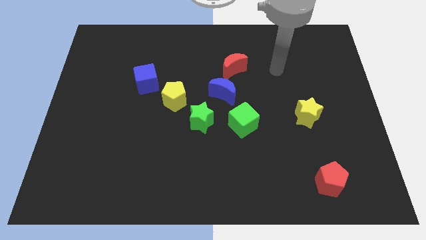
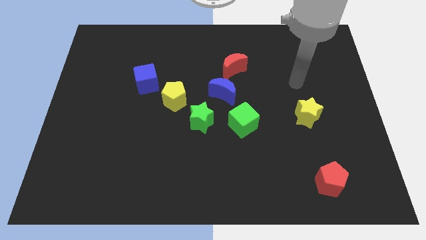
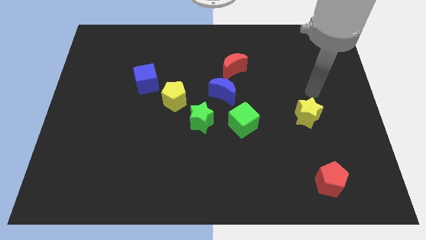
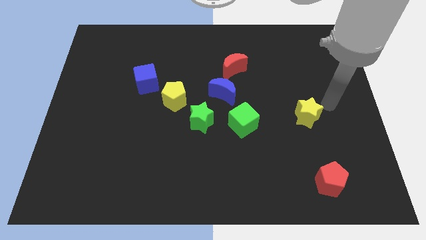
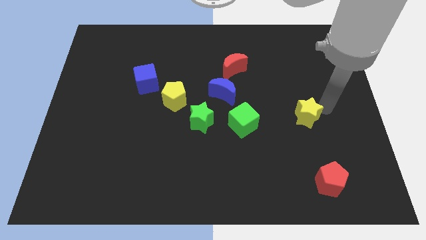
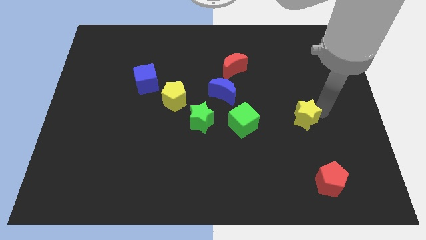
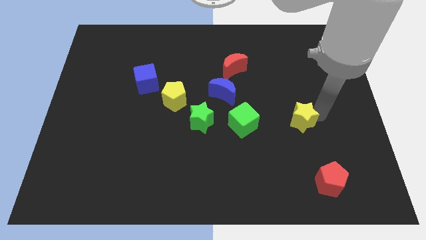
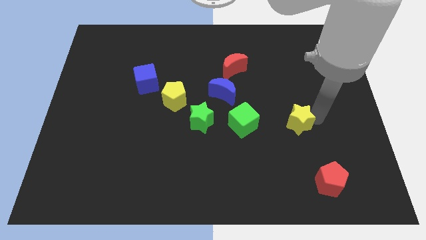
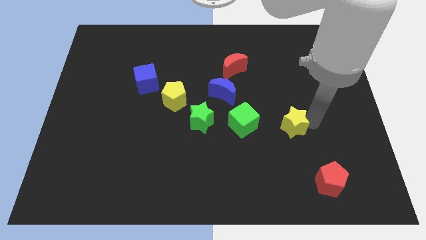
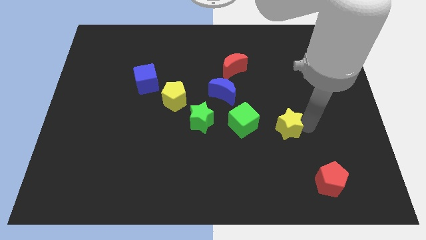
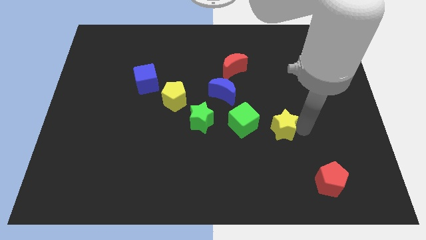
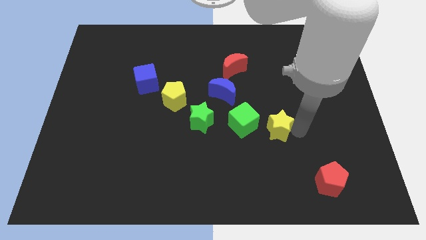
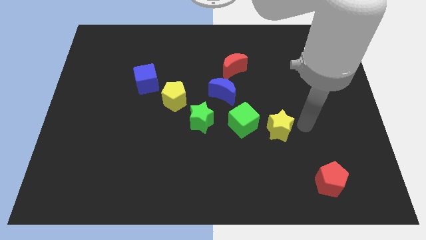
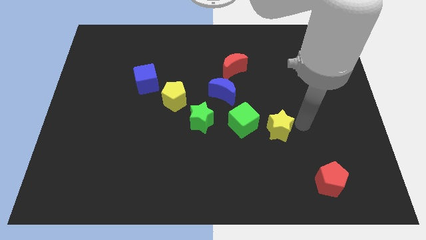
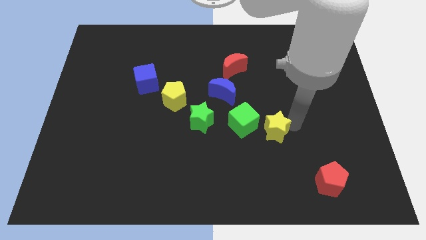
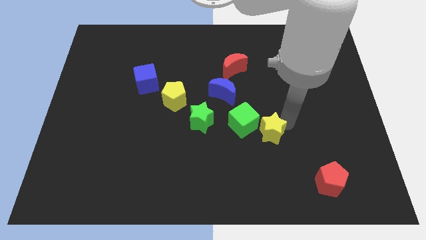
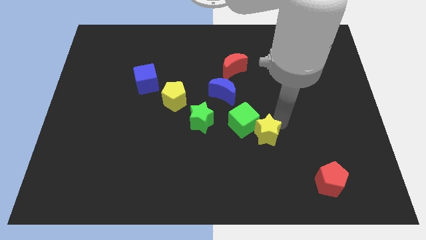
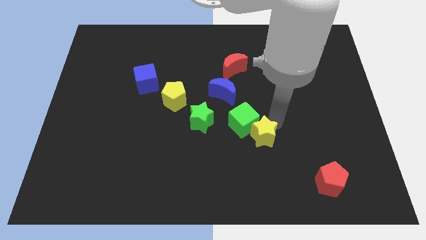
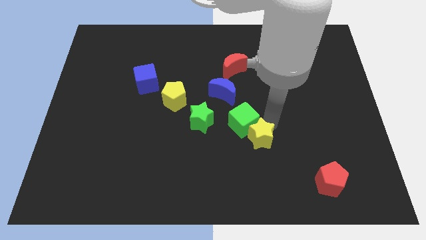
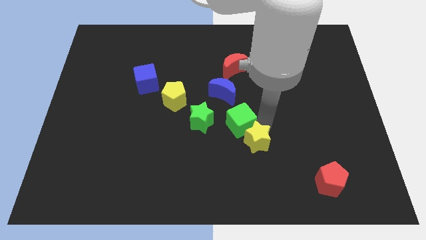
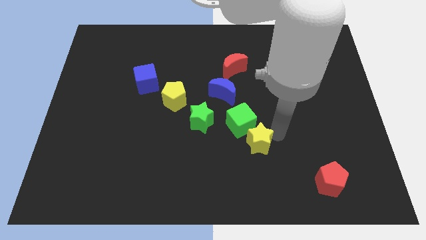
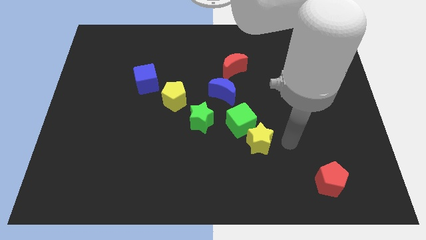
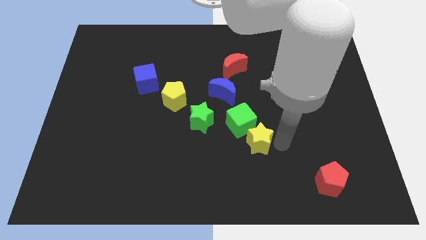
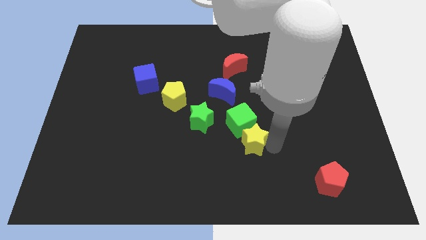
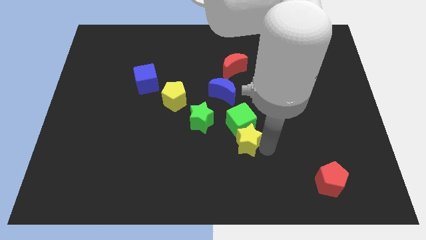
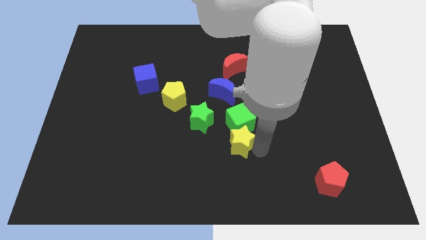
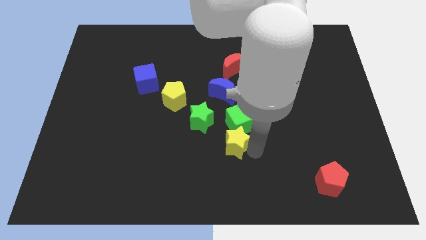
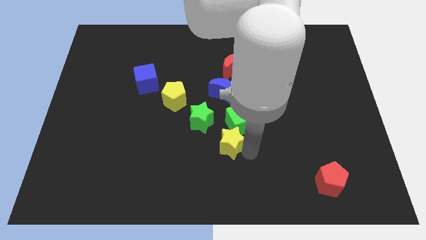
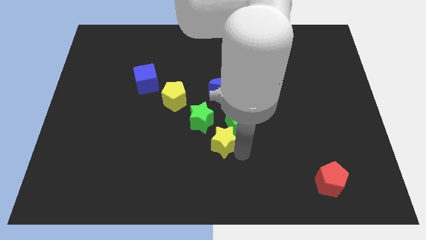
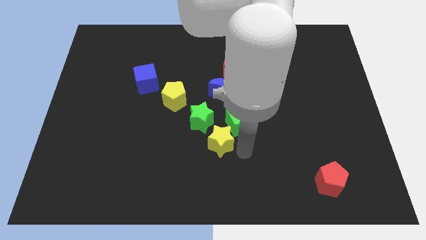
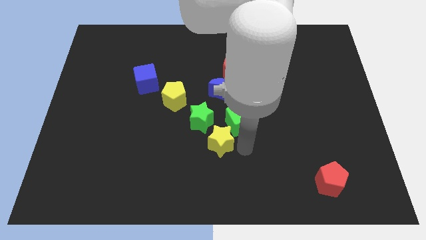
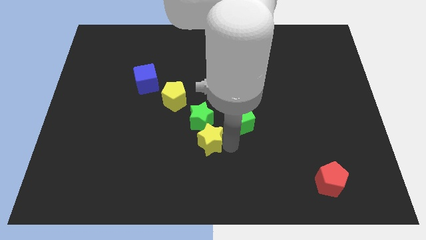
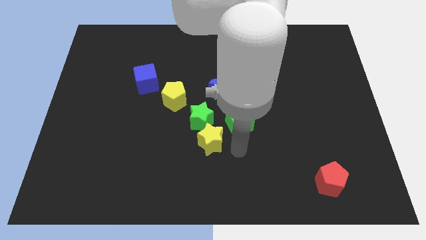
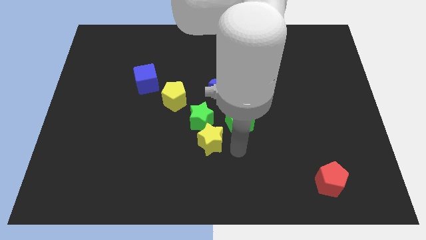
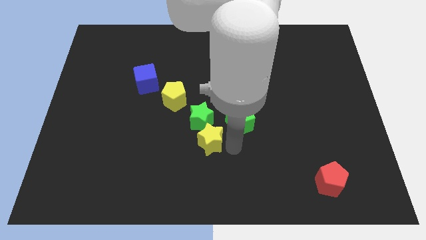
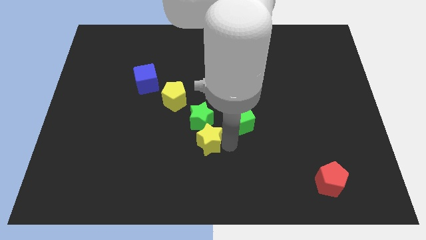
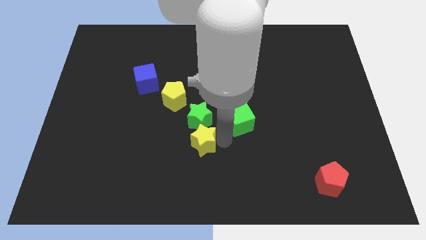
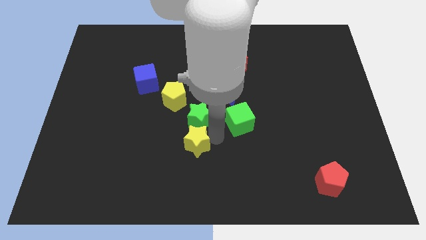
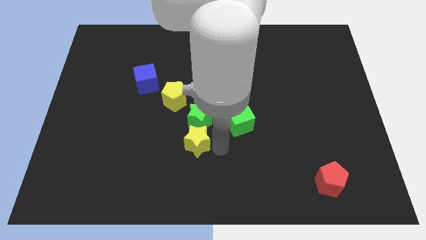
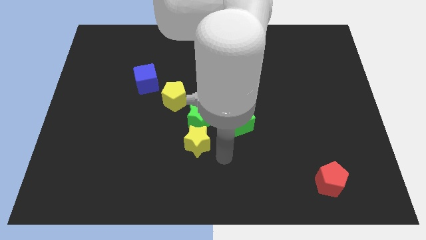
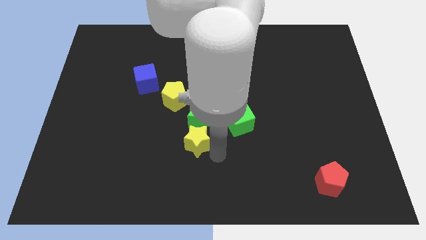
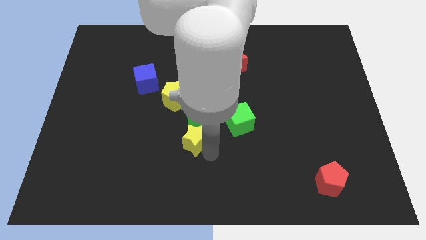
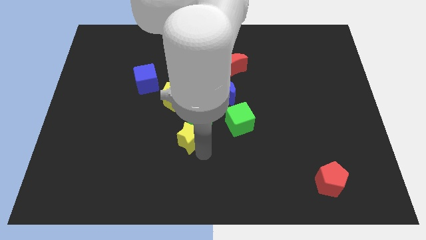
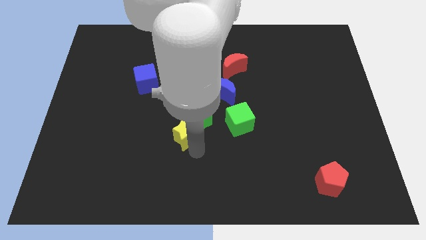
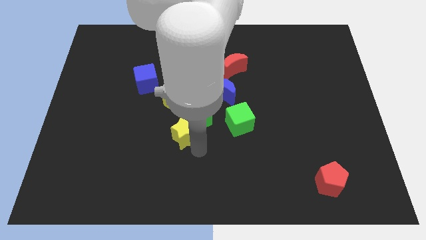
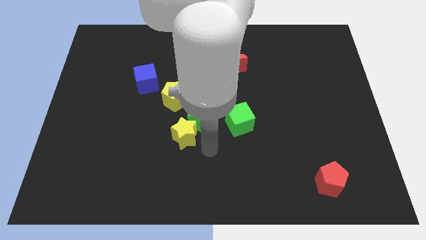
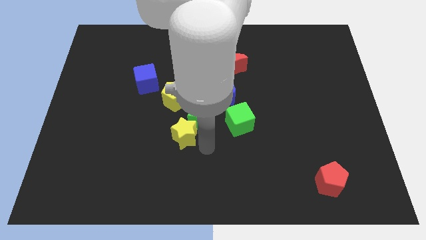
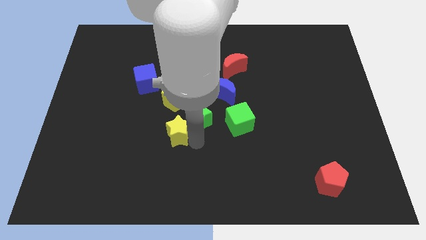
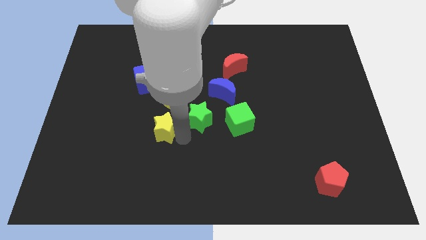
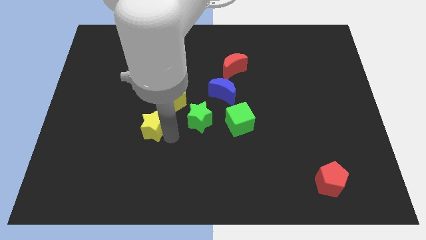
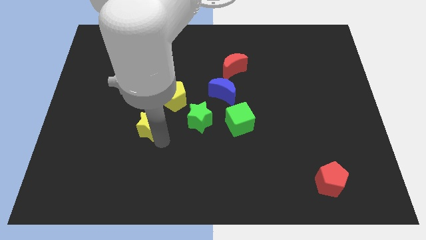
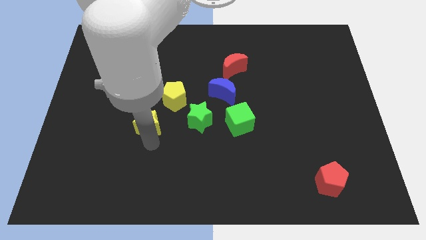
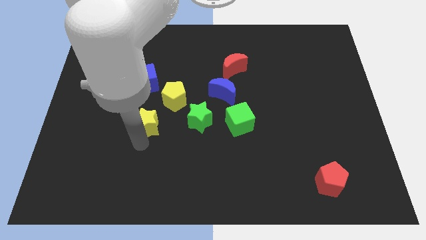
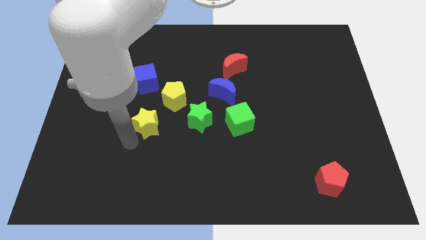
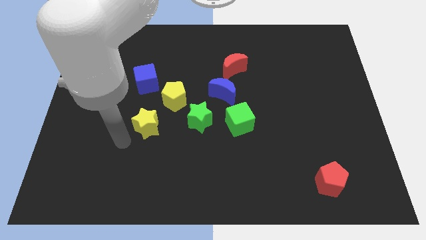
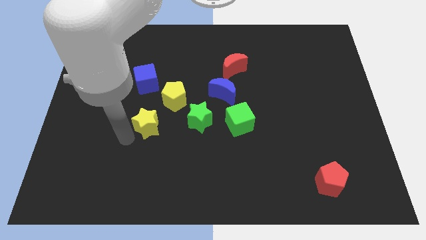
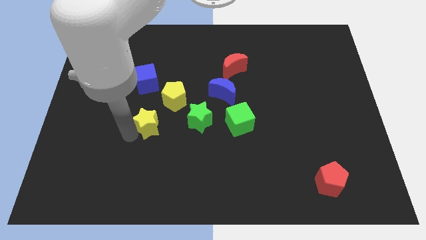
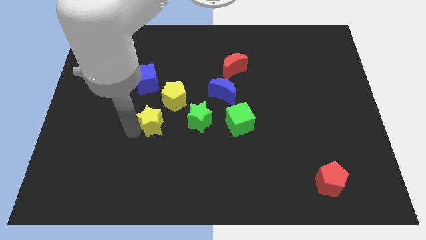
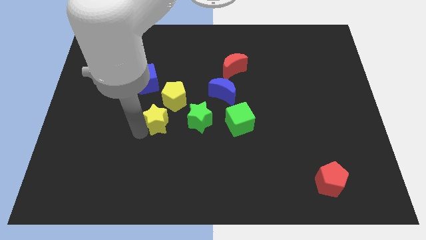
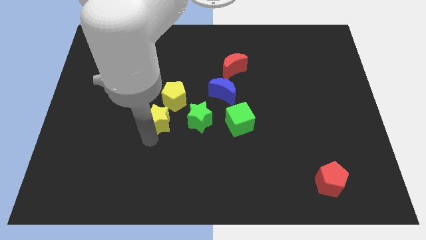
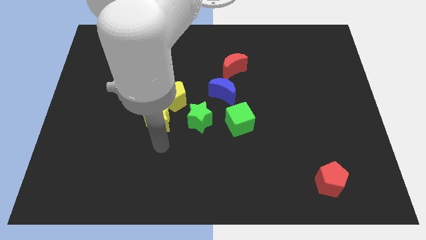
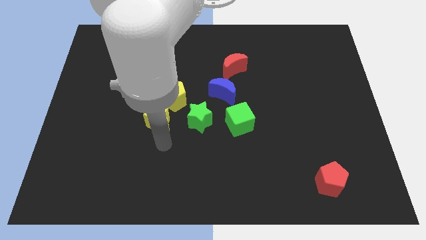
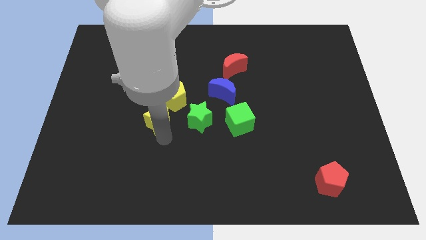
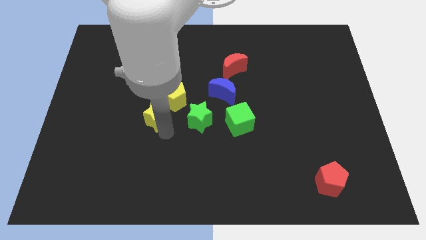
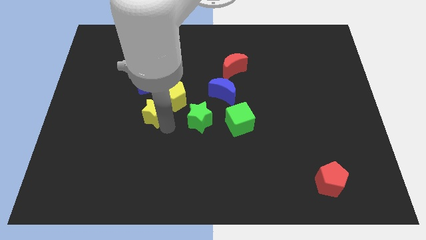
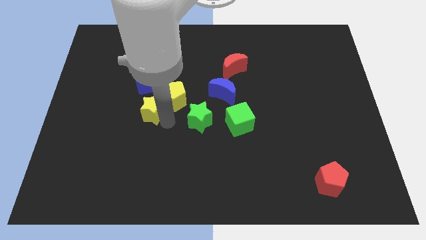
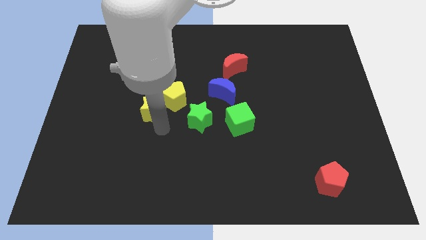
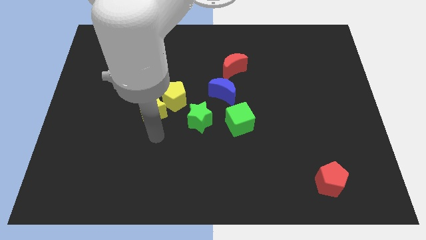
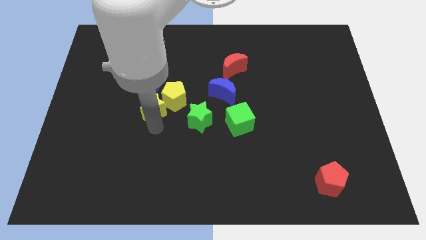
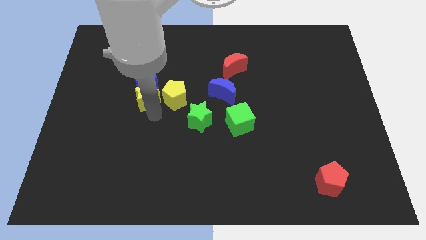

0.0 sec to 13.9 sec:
put the yellow star to the blue cube

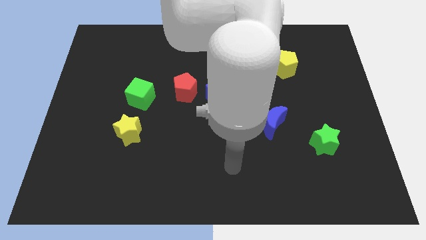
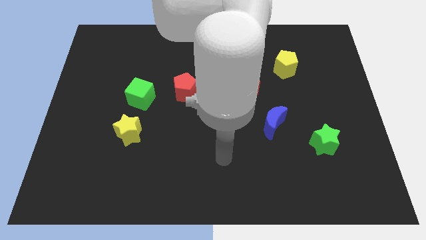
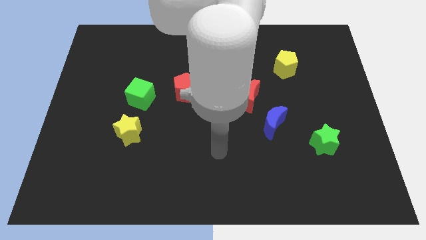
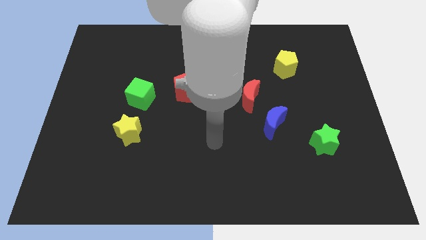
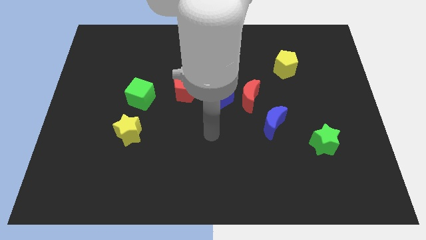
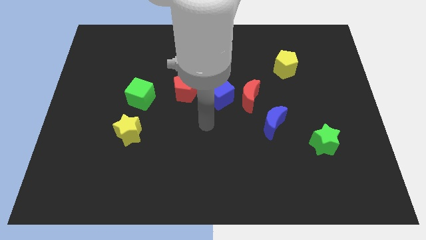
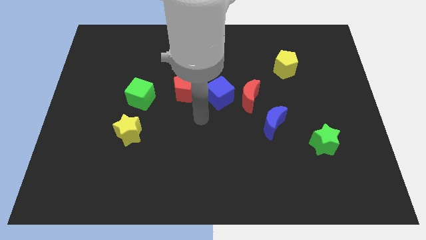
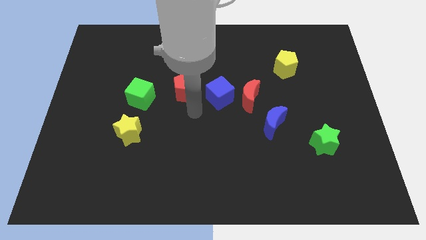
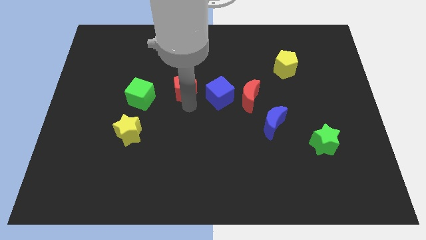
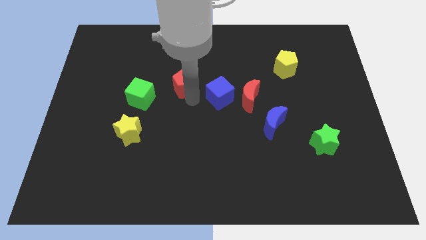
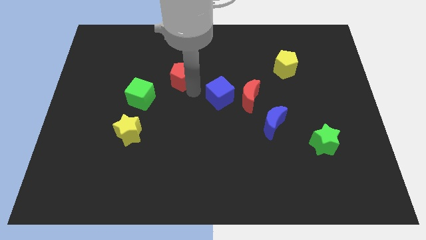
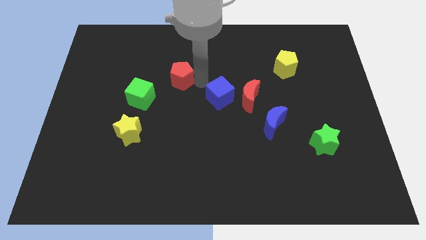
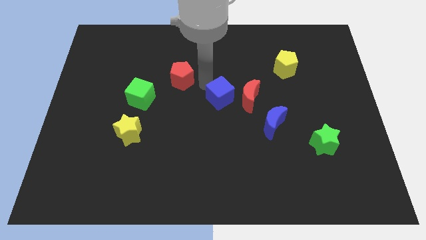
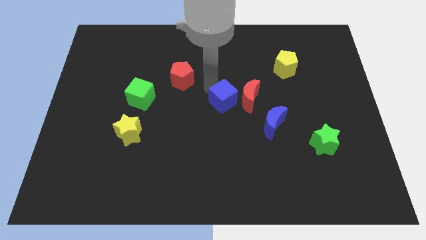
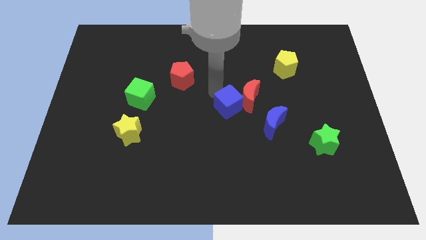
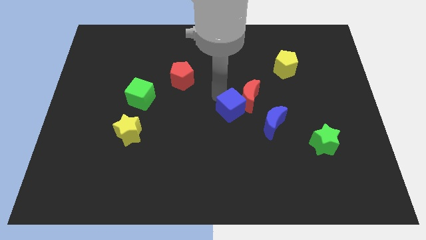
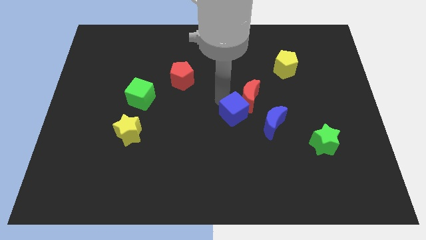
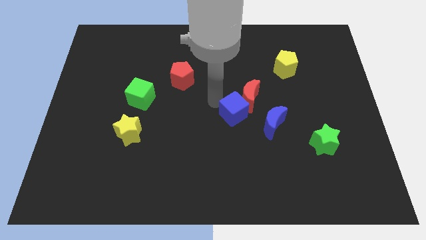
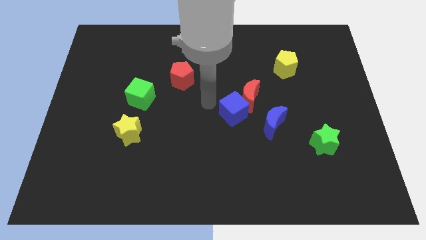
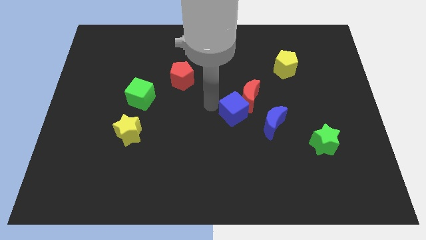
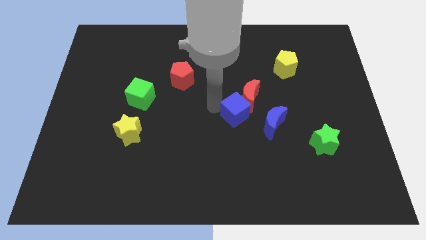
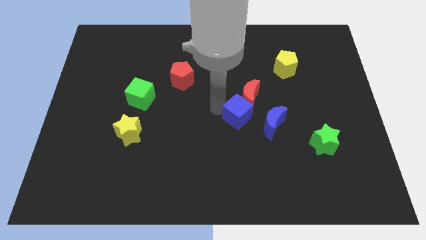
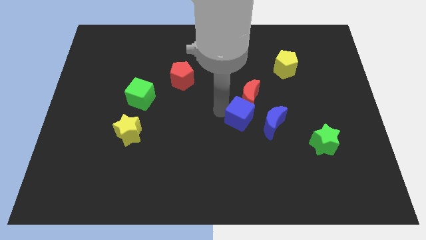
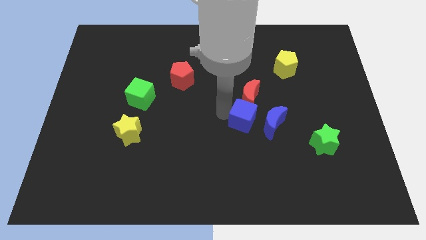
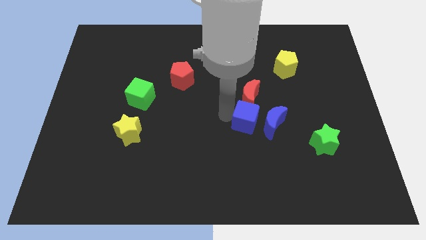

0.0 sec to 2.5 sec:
put the blue cube next to the blue moon
